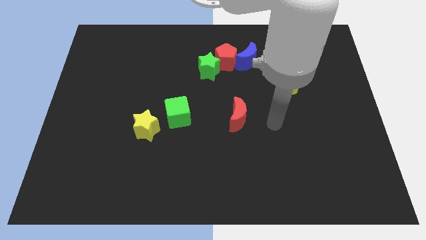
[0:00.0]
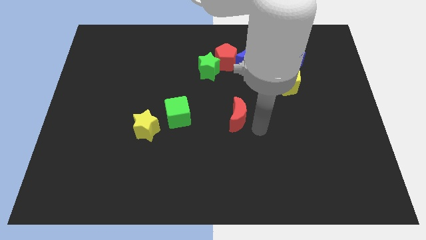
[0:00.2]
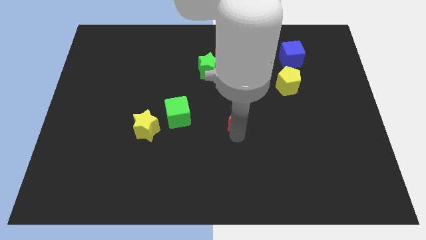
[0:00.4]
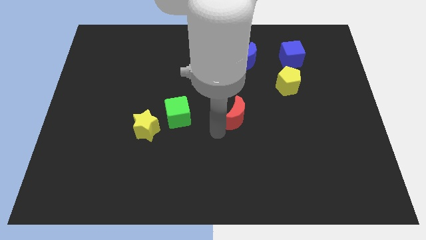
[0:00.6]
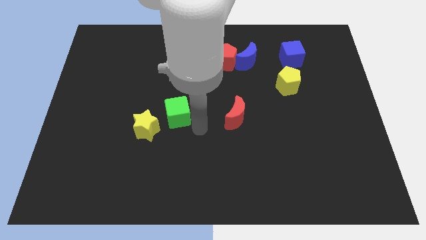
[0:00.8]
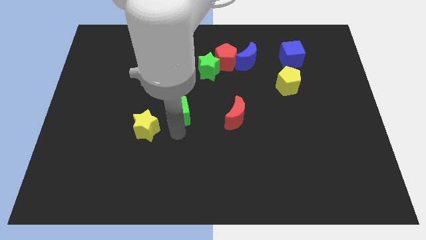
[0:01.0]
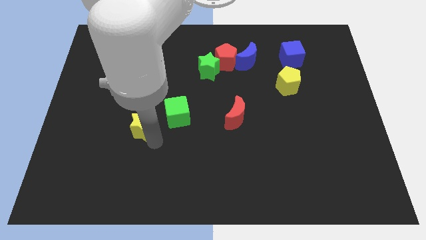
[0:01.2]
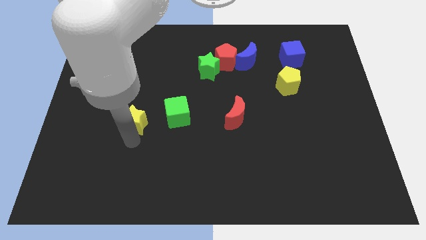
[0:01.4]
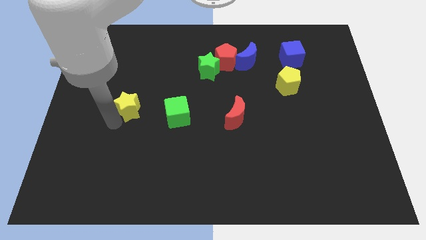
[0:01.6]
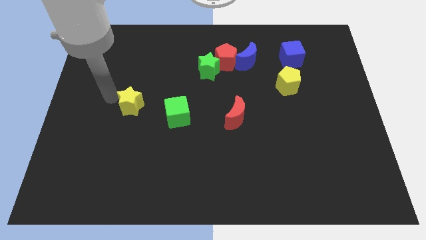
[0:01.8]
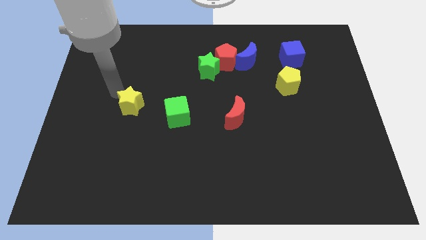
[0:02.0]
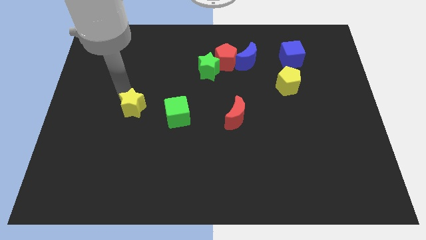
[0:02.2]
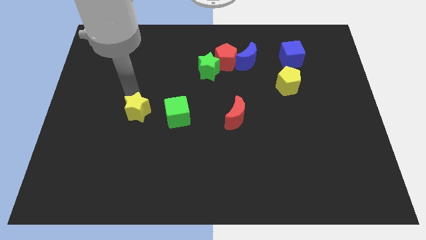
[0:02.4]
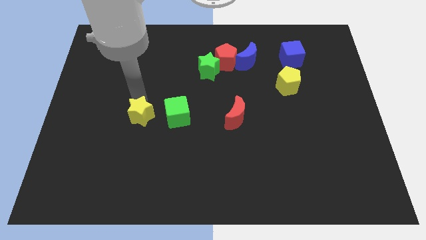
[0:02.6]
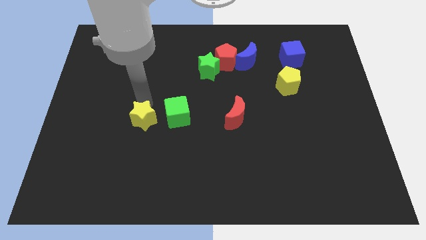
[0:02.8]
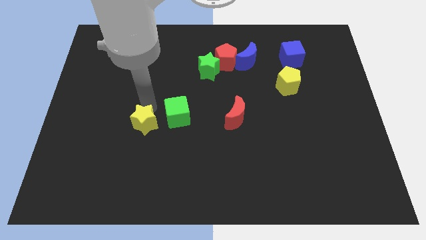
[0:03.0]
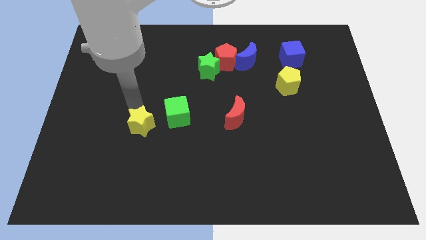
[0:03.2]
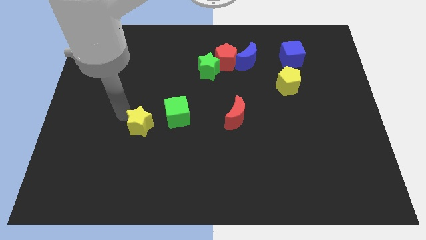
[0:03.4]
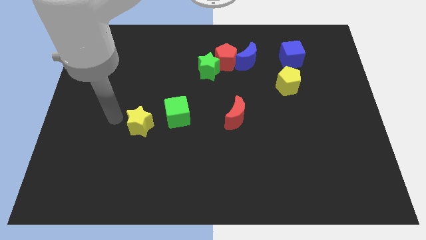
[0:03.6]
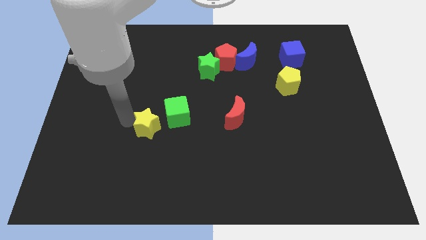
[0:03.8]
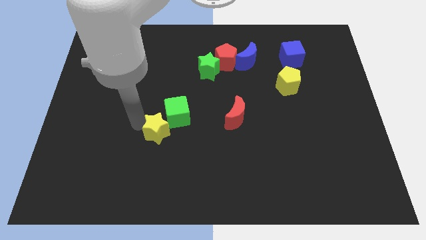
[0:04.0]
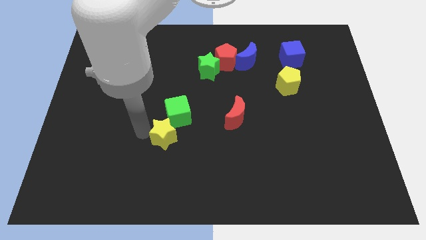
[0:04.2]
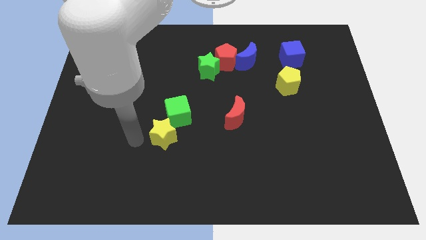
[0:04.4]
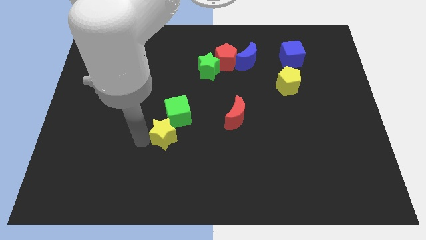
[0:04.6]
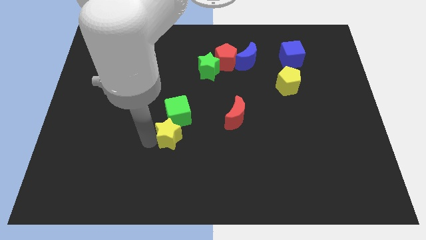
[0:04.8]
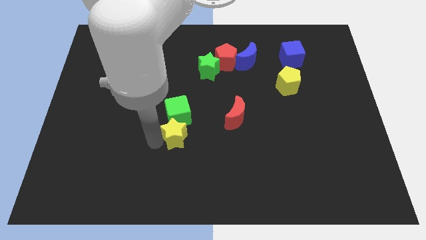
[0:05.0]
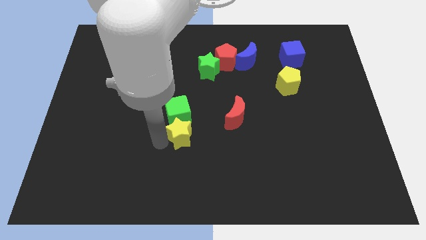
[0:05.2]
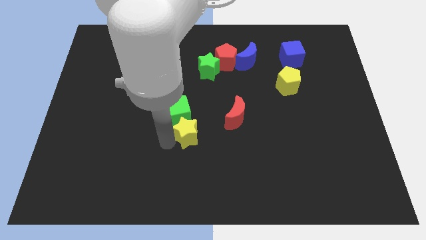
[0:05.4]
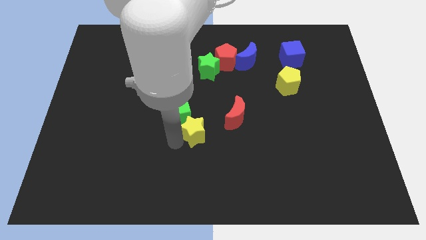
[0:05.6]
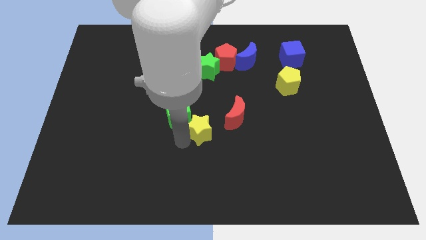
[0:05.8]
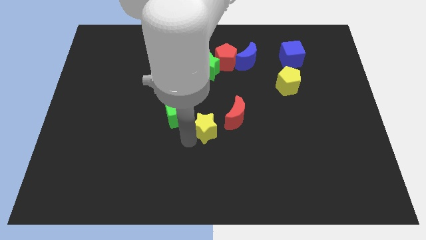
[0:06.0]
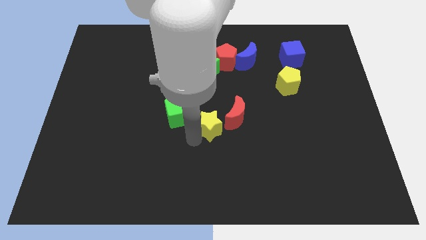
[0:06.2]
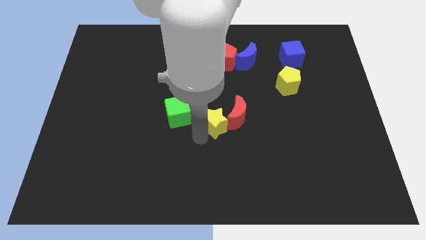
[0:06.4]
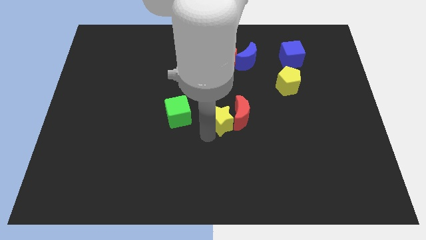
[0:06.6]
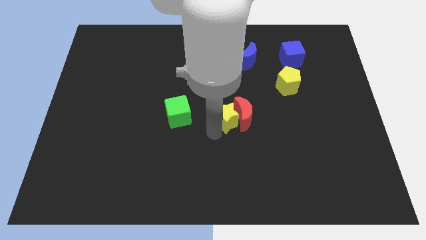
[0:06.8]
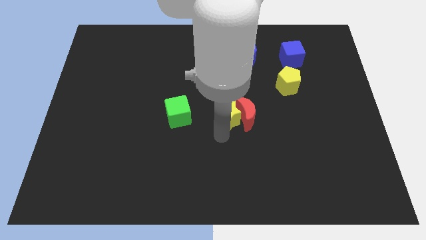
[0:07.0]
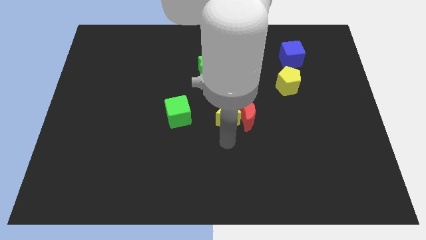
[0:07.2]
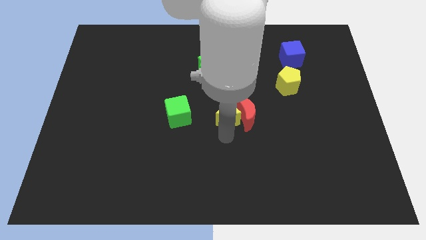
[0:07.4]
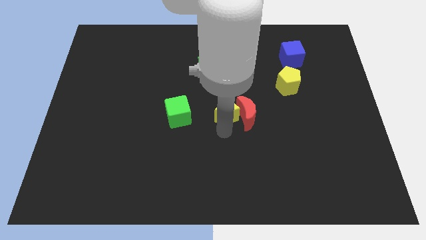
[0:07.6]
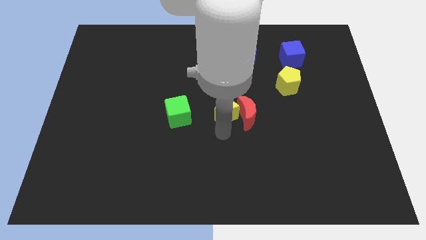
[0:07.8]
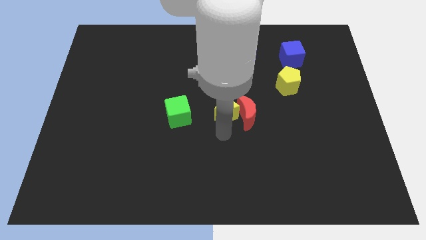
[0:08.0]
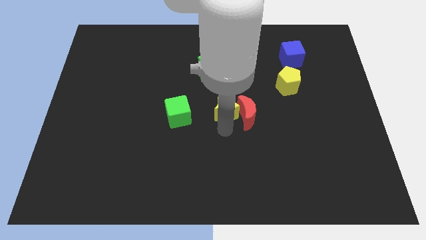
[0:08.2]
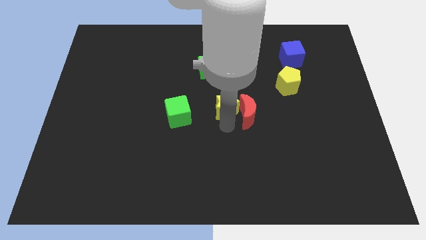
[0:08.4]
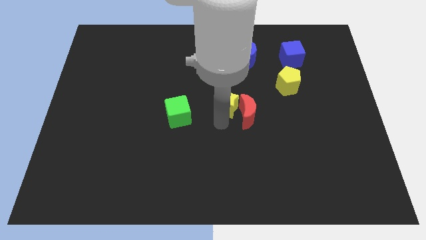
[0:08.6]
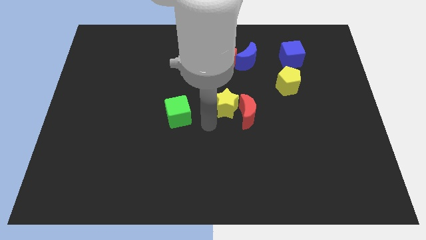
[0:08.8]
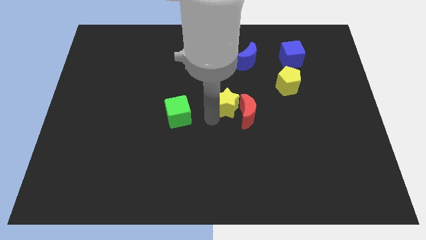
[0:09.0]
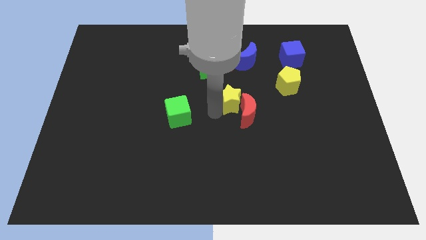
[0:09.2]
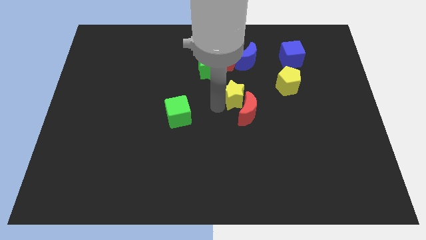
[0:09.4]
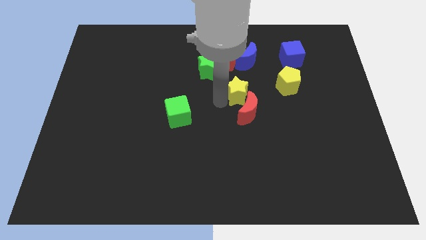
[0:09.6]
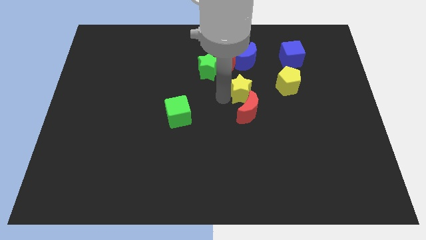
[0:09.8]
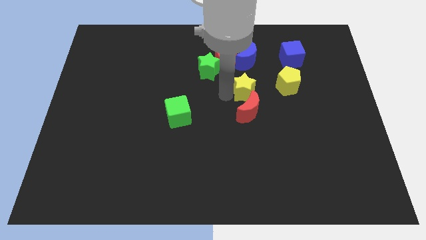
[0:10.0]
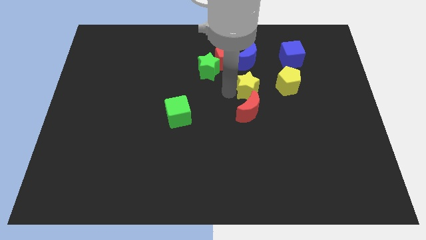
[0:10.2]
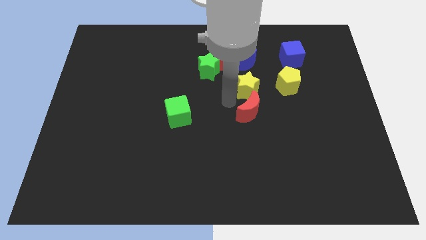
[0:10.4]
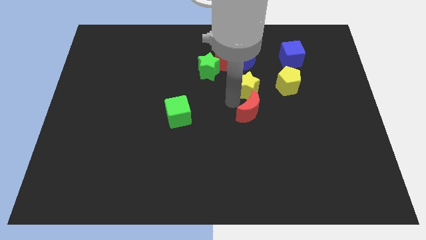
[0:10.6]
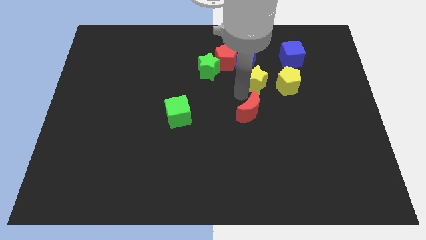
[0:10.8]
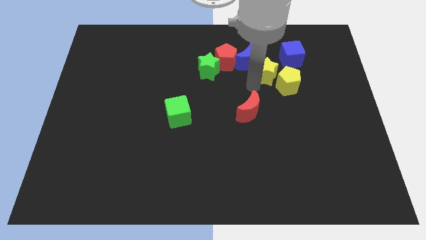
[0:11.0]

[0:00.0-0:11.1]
put the yellow star just right of the red pentagon

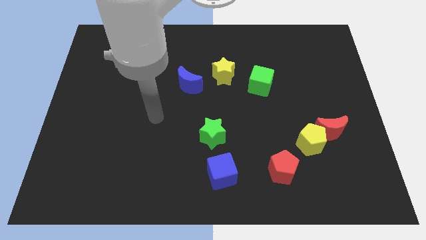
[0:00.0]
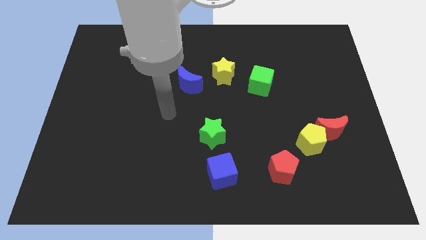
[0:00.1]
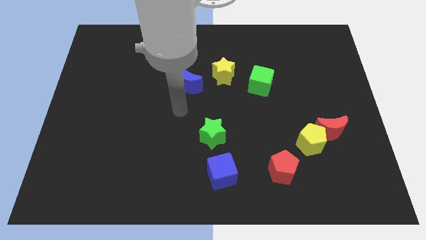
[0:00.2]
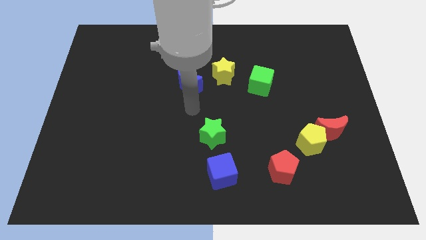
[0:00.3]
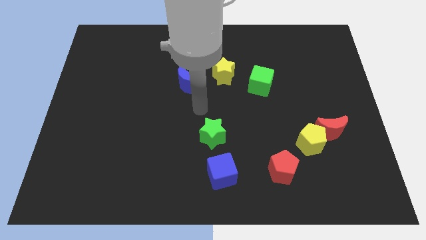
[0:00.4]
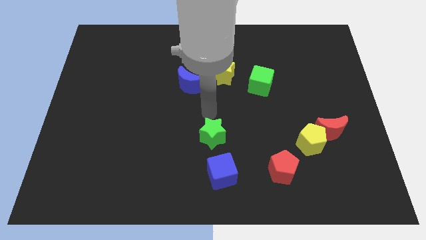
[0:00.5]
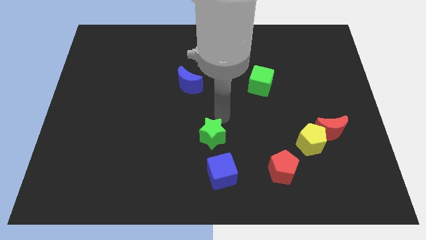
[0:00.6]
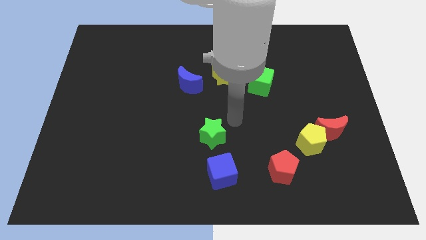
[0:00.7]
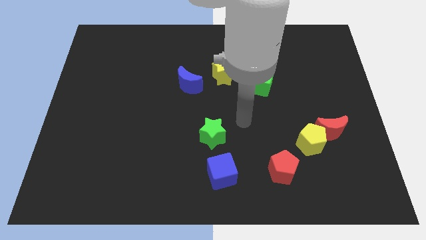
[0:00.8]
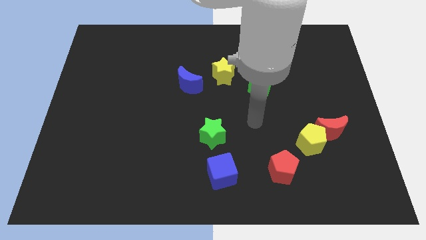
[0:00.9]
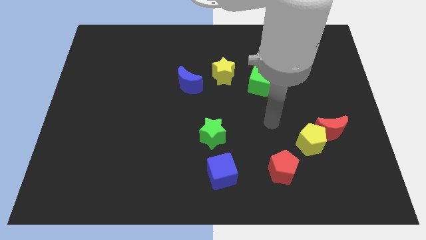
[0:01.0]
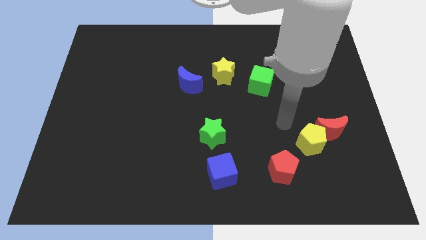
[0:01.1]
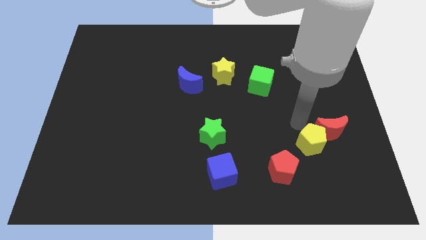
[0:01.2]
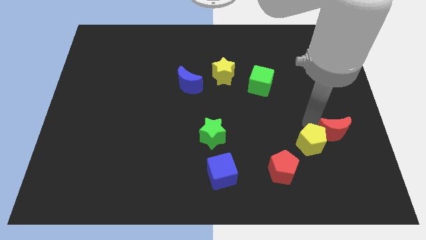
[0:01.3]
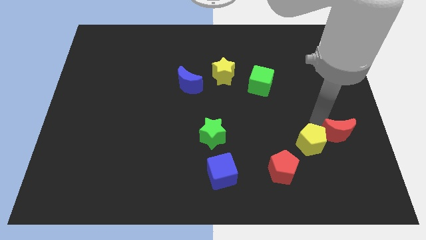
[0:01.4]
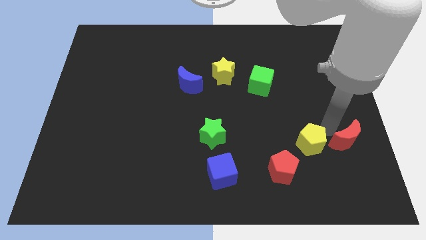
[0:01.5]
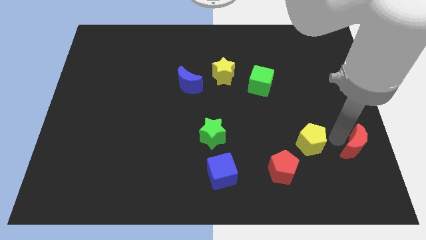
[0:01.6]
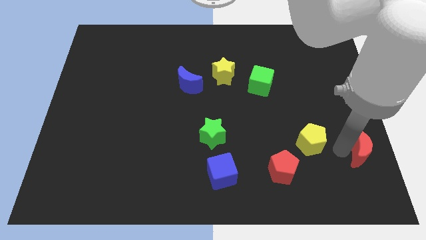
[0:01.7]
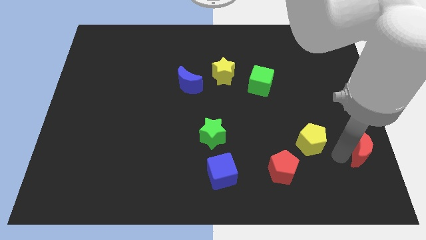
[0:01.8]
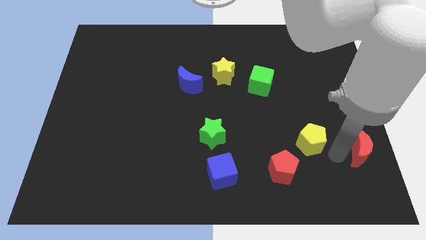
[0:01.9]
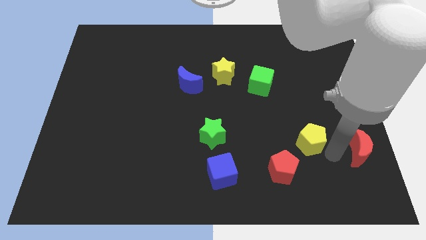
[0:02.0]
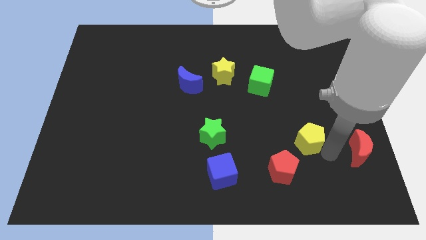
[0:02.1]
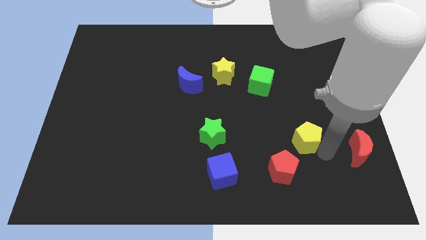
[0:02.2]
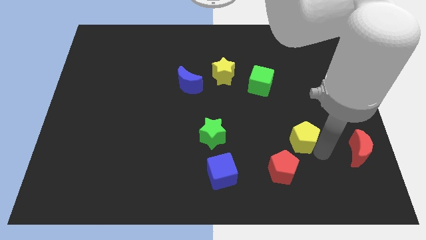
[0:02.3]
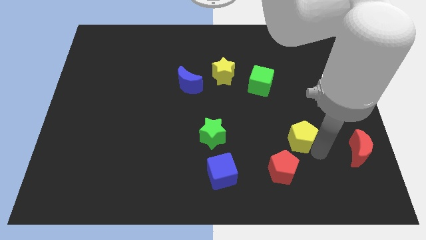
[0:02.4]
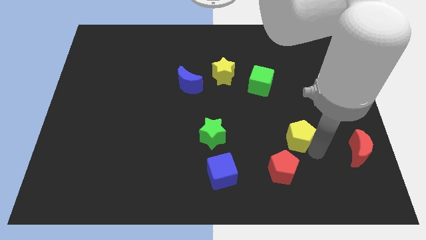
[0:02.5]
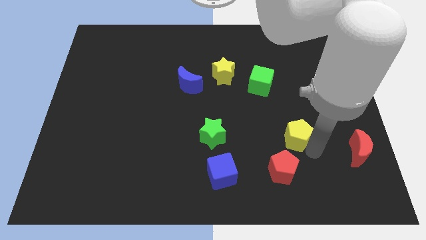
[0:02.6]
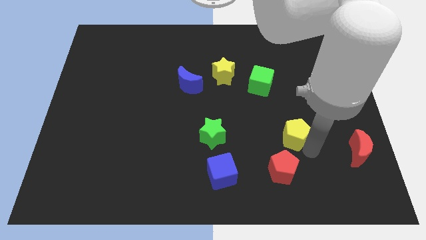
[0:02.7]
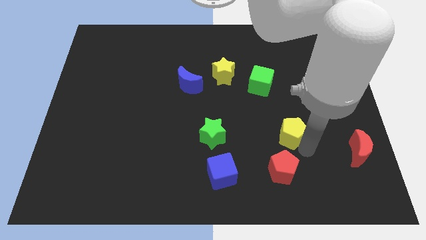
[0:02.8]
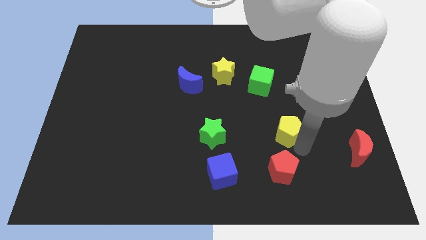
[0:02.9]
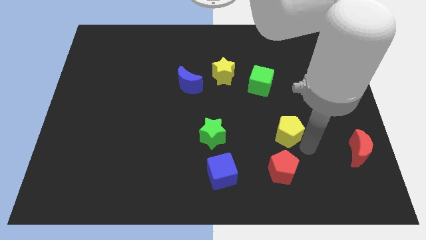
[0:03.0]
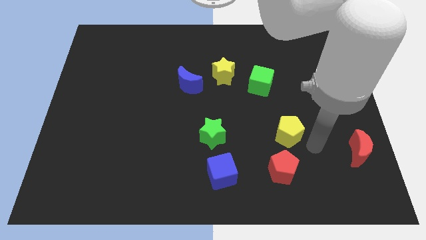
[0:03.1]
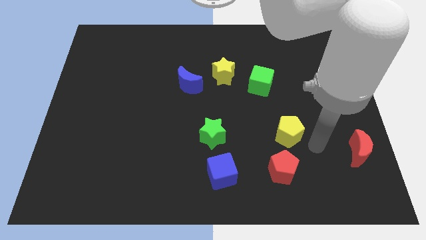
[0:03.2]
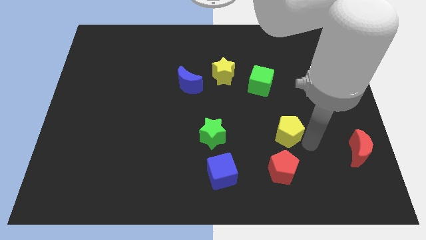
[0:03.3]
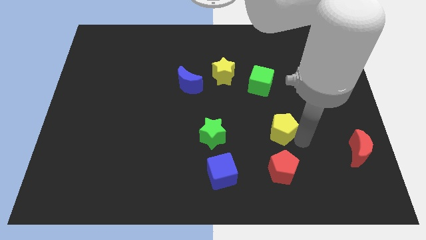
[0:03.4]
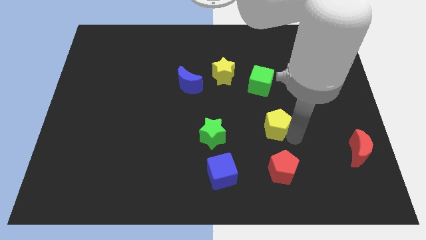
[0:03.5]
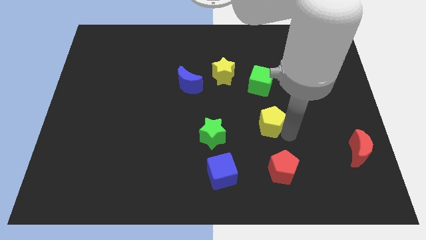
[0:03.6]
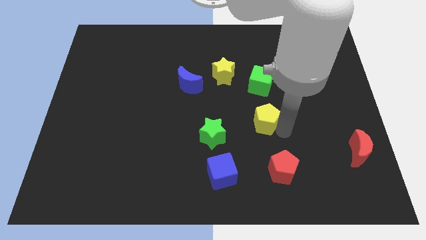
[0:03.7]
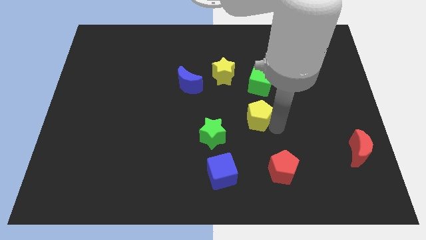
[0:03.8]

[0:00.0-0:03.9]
move the yellow pentagon to the top right side of the green star
